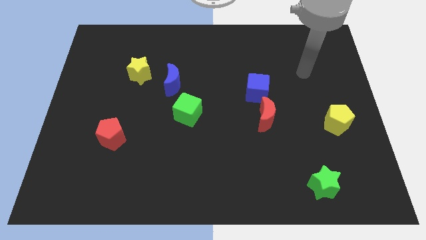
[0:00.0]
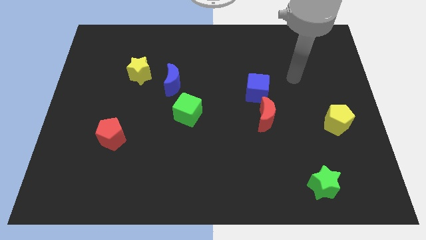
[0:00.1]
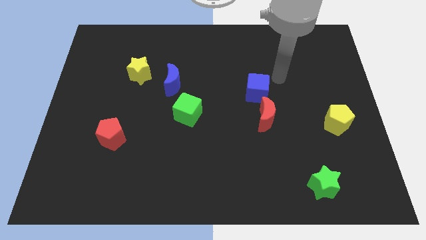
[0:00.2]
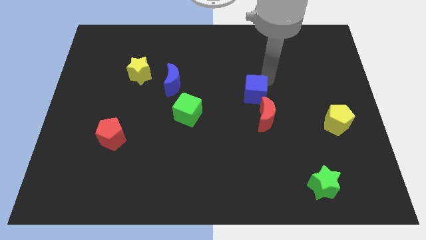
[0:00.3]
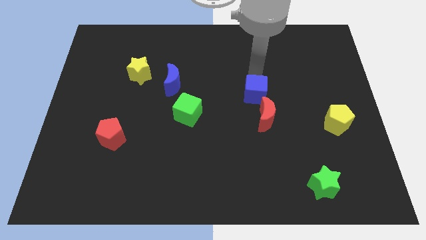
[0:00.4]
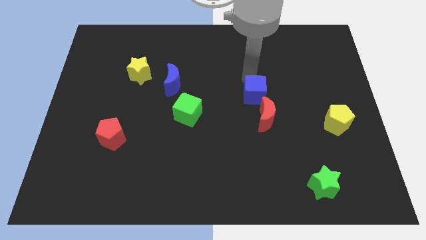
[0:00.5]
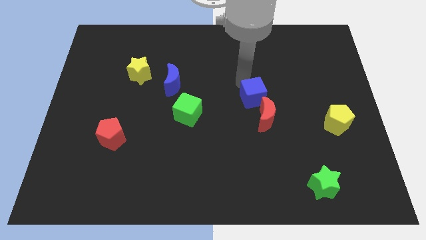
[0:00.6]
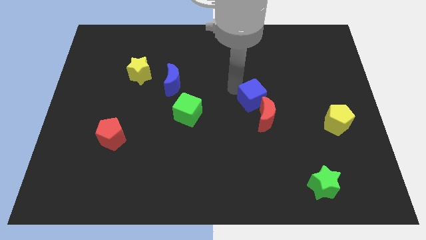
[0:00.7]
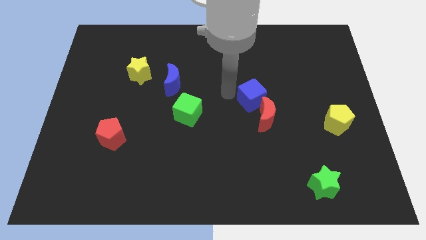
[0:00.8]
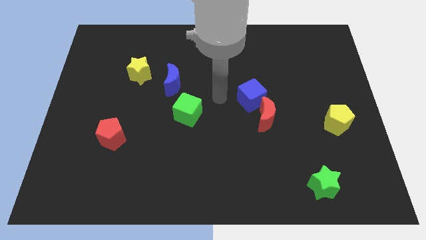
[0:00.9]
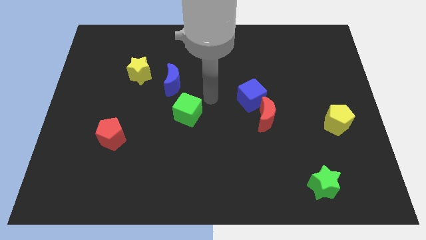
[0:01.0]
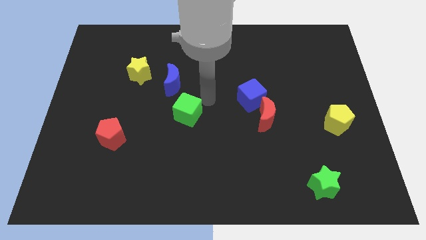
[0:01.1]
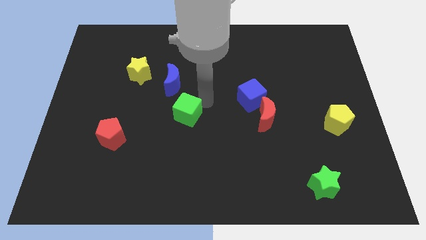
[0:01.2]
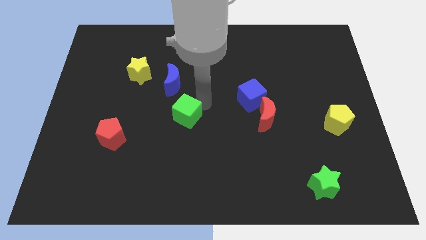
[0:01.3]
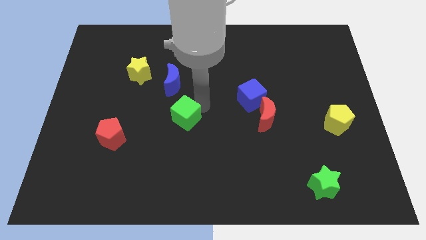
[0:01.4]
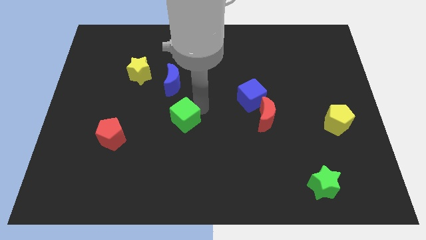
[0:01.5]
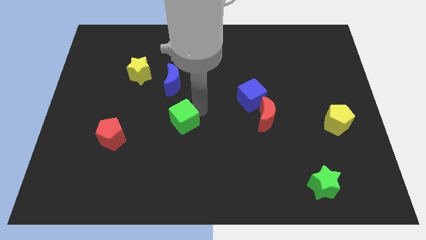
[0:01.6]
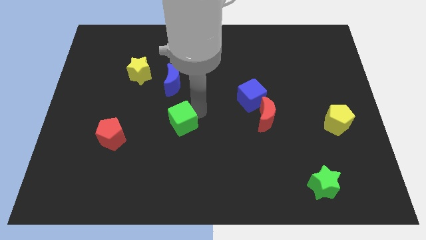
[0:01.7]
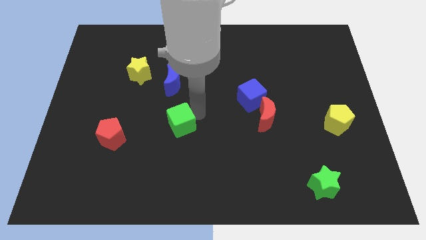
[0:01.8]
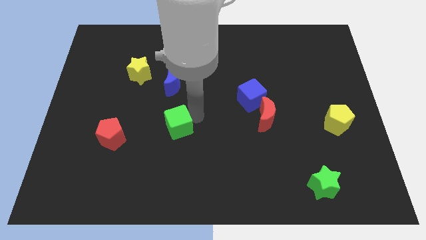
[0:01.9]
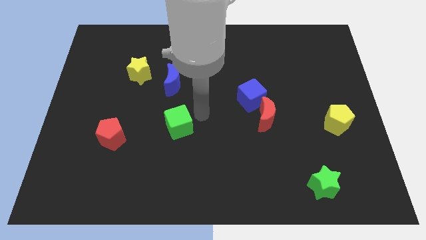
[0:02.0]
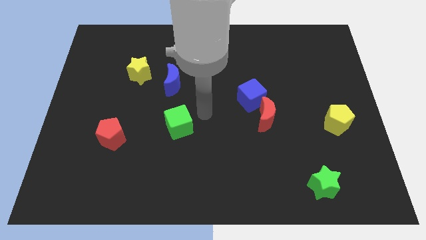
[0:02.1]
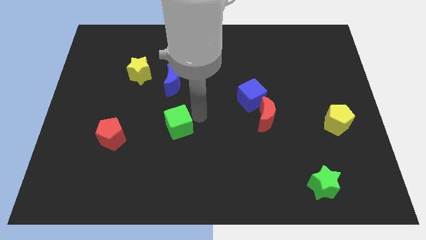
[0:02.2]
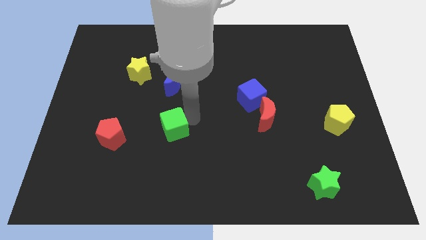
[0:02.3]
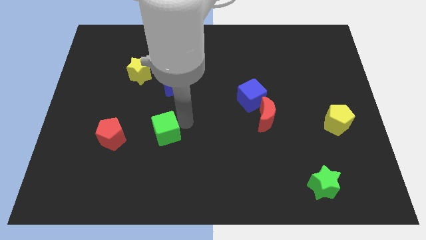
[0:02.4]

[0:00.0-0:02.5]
slightly push the green cube diagonally down and to the left

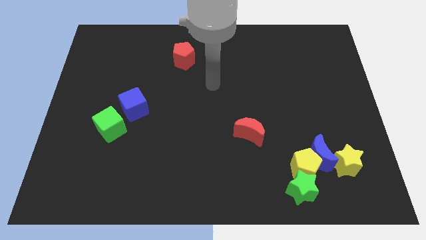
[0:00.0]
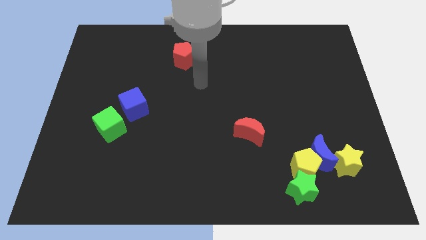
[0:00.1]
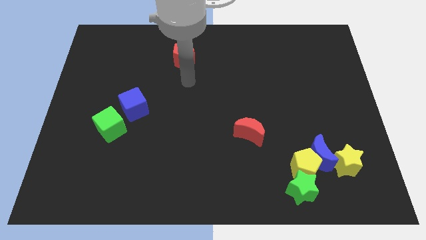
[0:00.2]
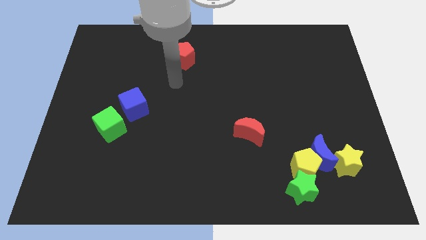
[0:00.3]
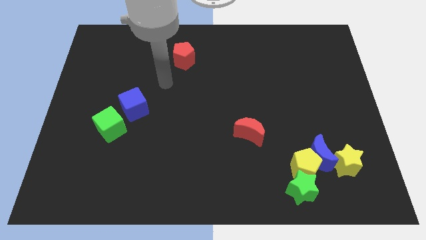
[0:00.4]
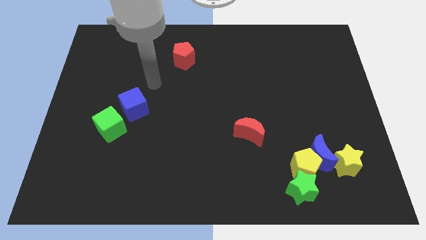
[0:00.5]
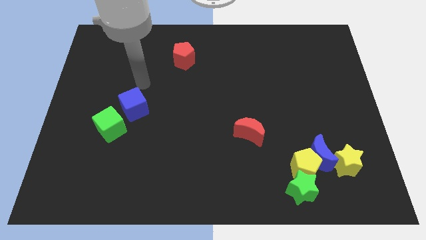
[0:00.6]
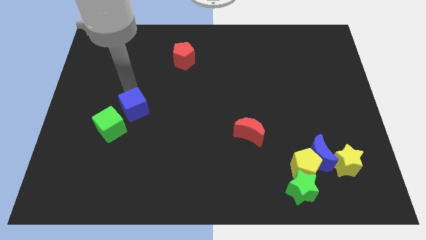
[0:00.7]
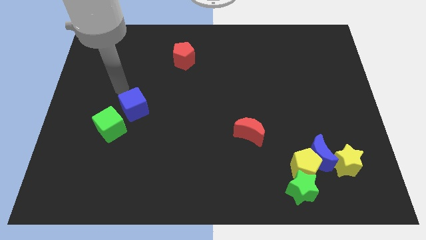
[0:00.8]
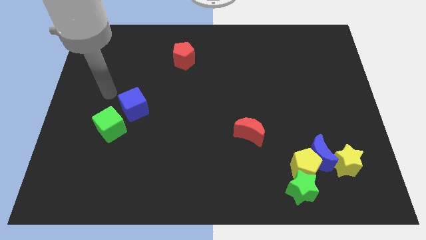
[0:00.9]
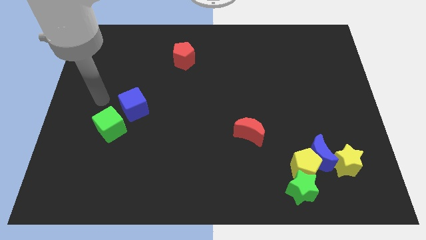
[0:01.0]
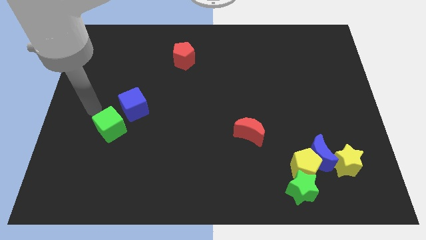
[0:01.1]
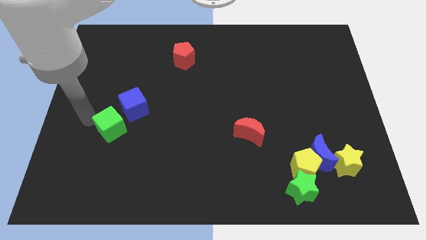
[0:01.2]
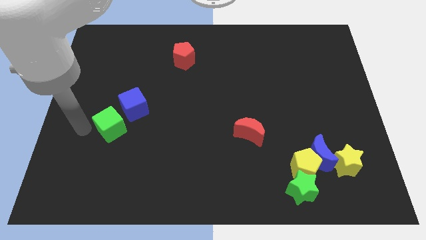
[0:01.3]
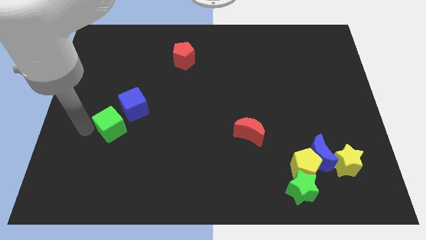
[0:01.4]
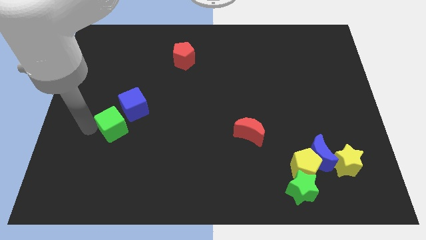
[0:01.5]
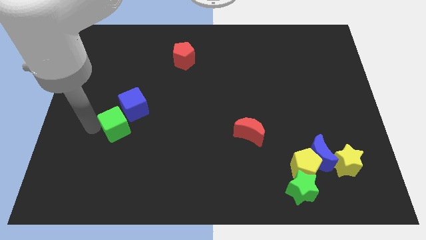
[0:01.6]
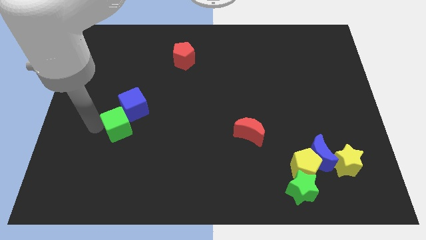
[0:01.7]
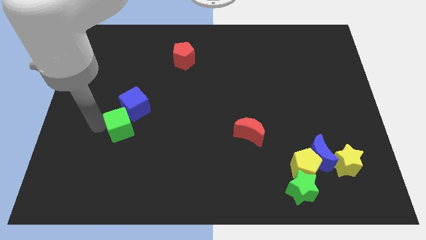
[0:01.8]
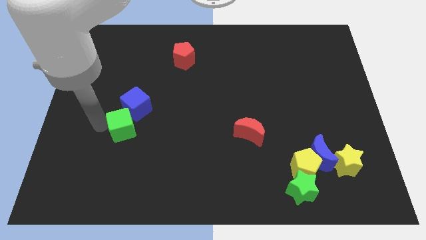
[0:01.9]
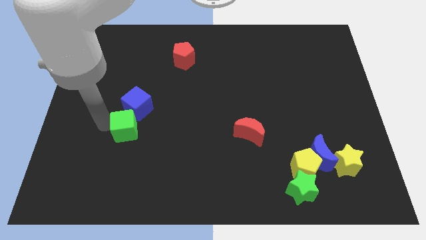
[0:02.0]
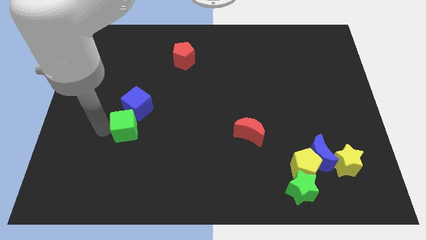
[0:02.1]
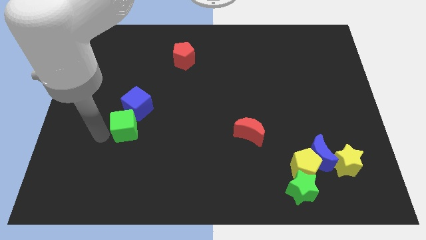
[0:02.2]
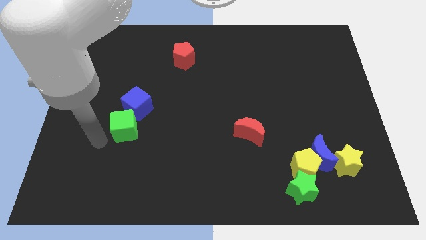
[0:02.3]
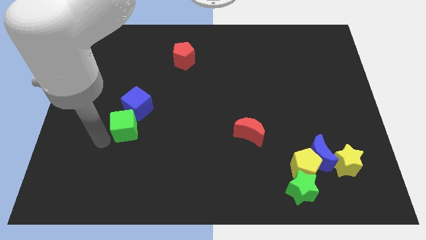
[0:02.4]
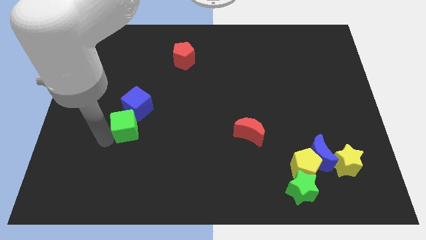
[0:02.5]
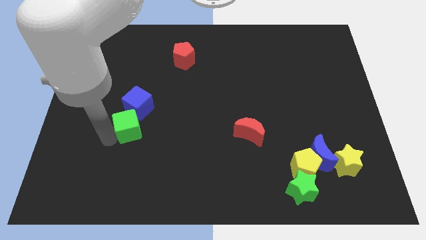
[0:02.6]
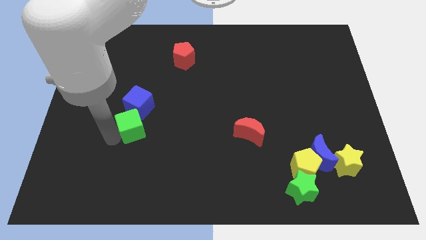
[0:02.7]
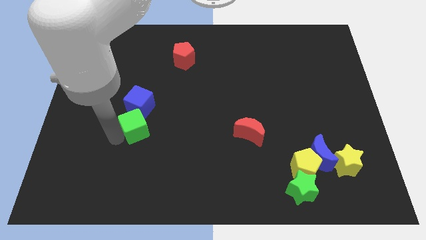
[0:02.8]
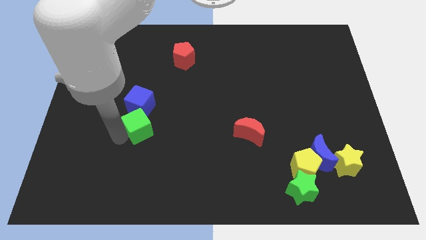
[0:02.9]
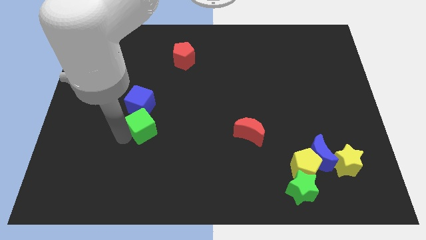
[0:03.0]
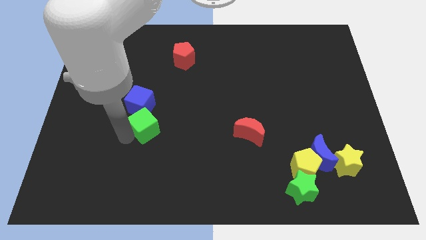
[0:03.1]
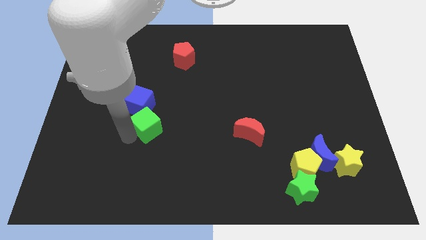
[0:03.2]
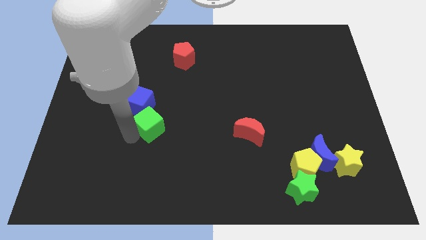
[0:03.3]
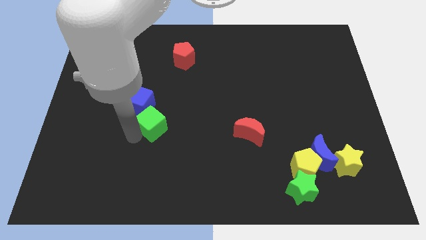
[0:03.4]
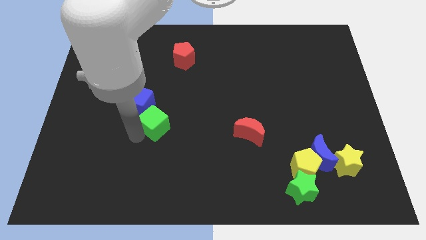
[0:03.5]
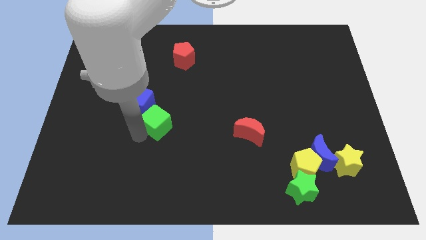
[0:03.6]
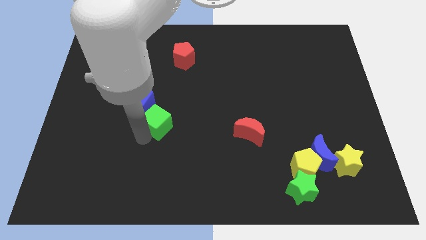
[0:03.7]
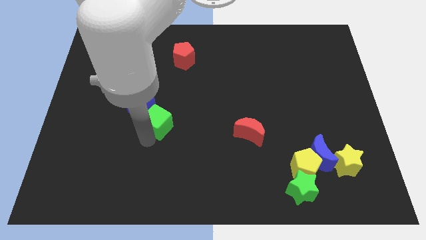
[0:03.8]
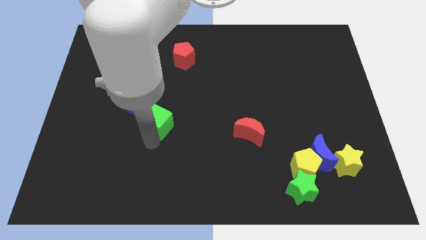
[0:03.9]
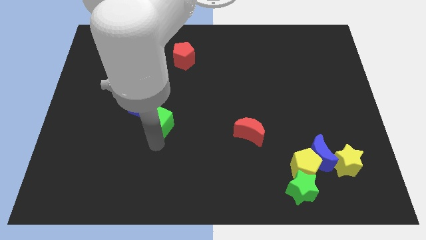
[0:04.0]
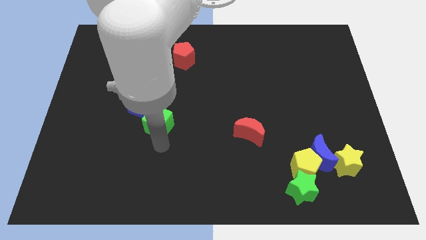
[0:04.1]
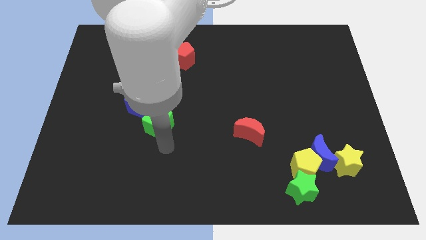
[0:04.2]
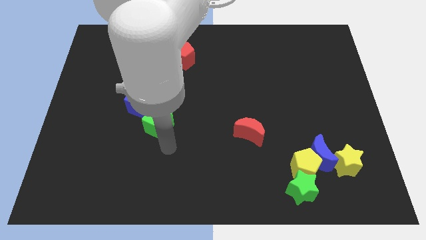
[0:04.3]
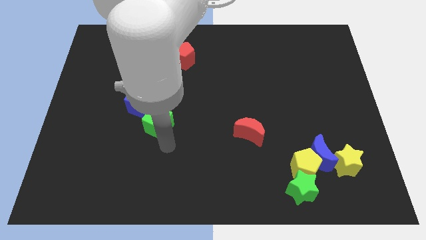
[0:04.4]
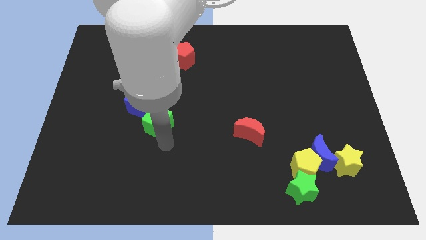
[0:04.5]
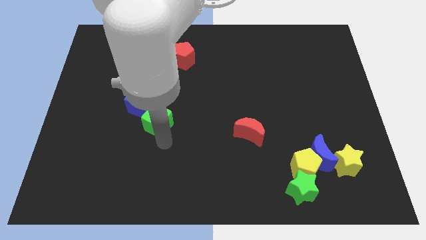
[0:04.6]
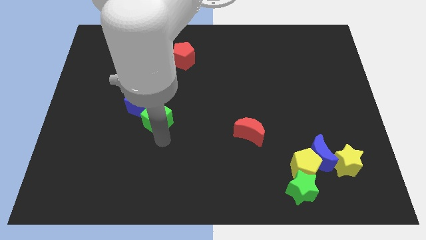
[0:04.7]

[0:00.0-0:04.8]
move the green cube up and then to the right somewhat

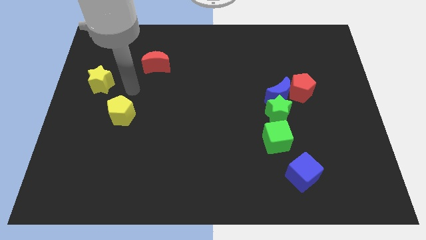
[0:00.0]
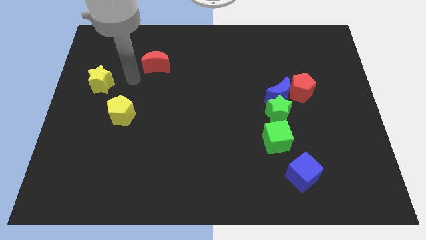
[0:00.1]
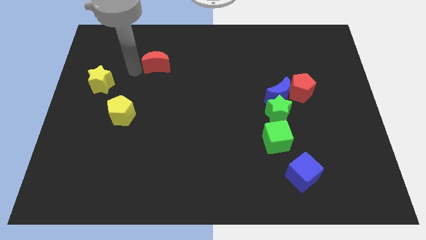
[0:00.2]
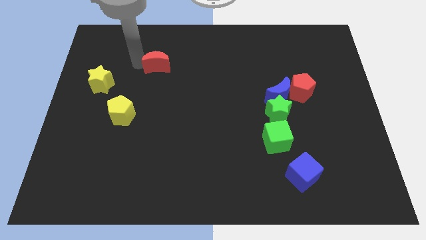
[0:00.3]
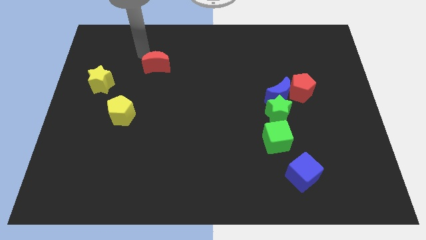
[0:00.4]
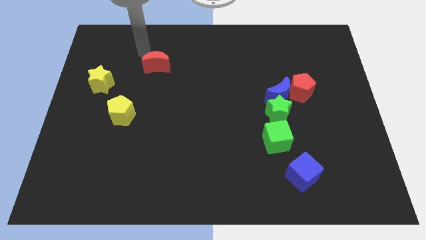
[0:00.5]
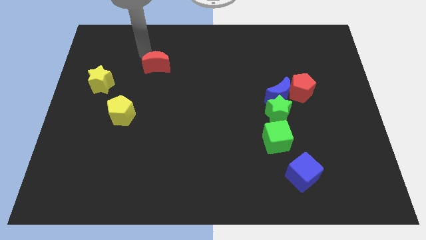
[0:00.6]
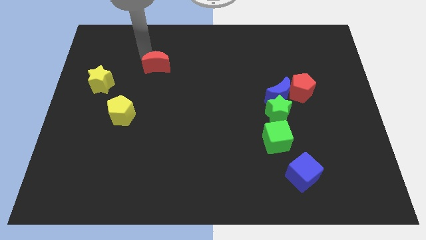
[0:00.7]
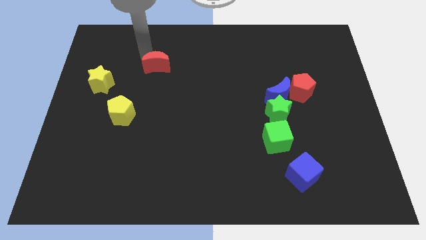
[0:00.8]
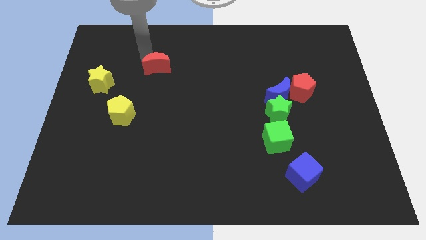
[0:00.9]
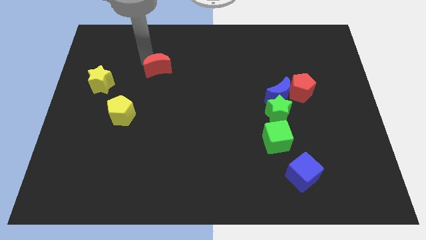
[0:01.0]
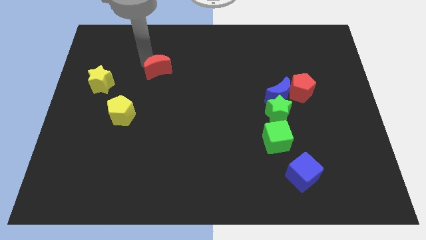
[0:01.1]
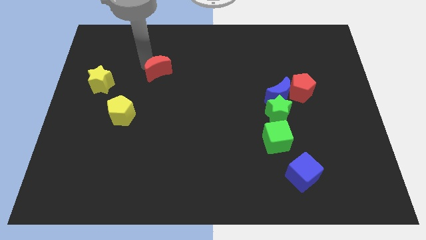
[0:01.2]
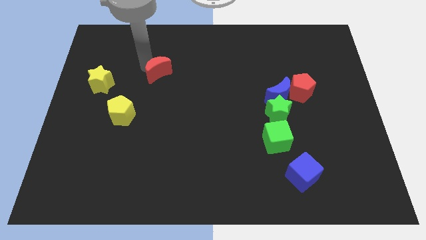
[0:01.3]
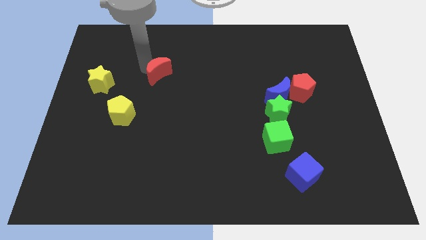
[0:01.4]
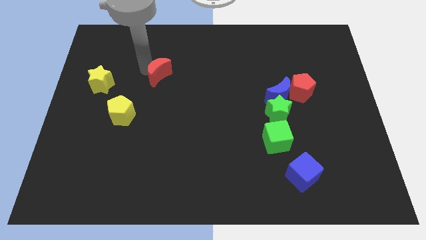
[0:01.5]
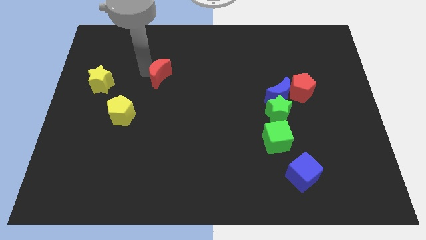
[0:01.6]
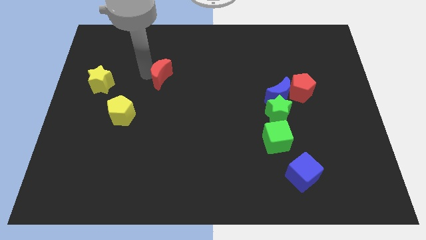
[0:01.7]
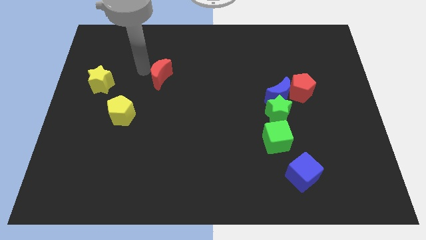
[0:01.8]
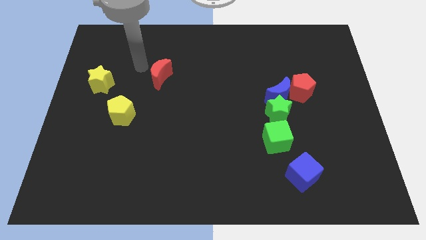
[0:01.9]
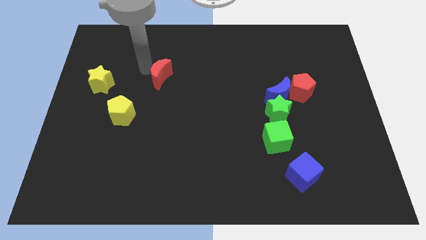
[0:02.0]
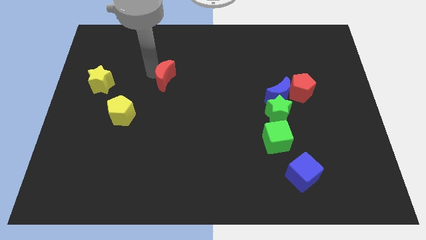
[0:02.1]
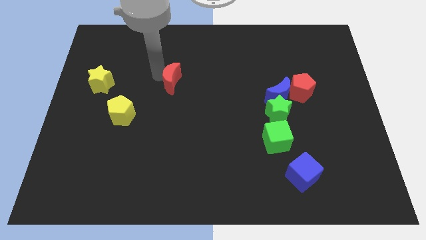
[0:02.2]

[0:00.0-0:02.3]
push the red moon diagonally down and right a little
